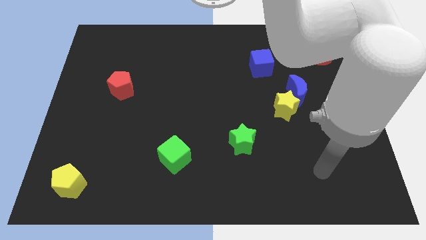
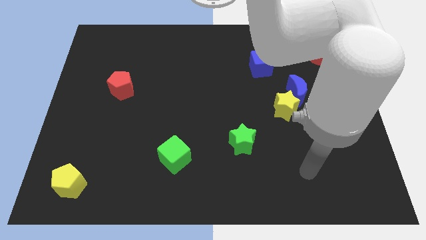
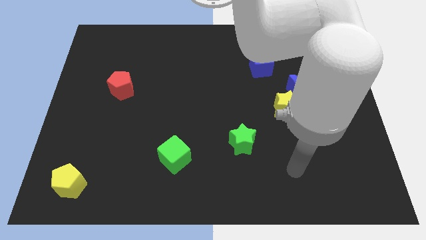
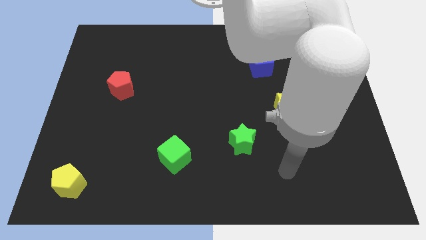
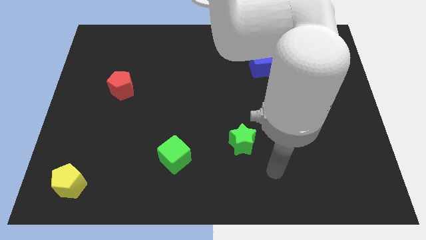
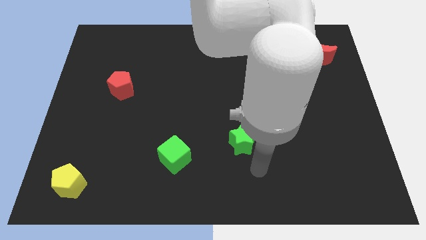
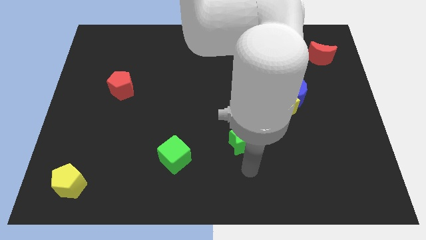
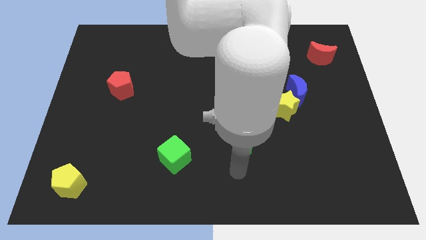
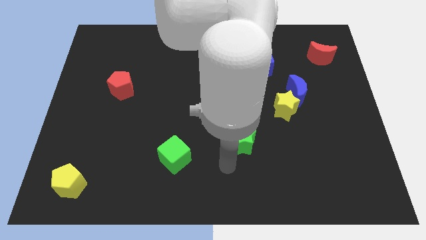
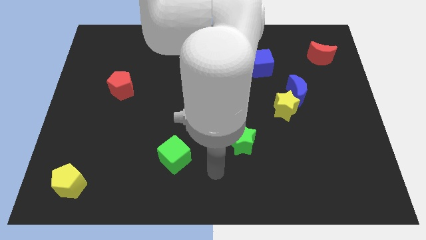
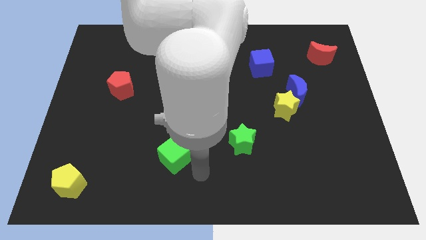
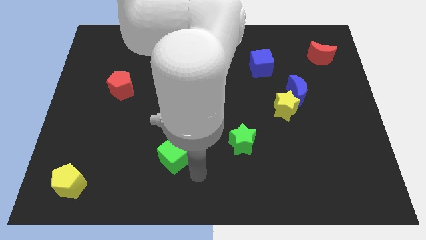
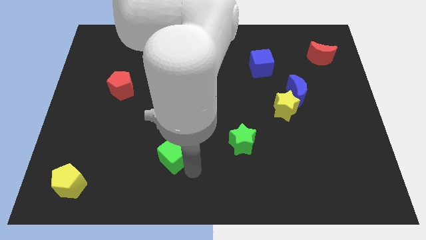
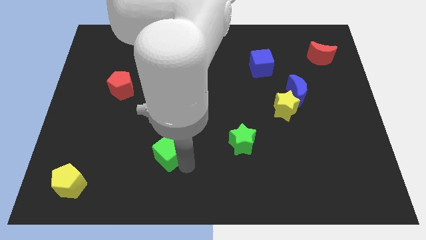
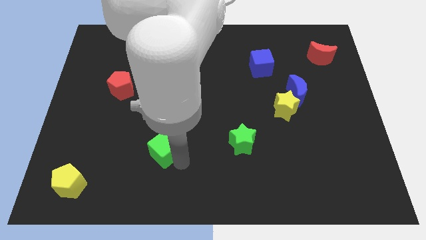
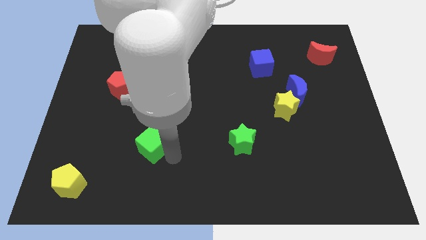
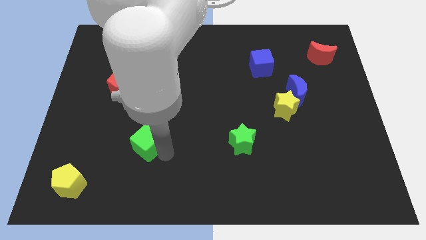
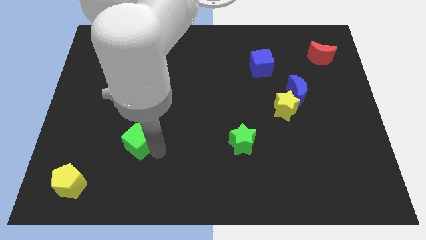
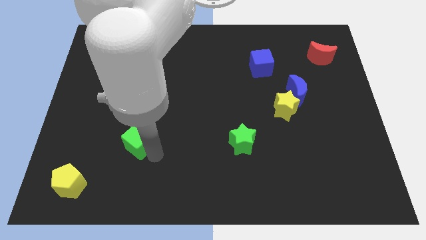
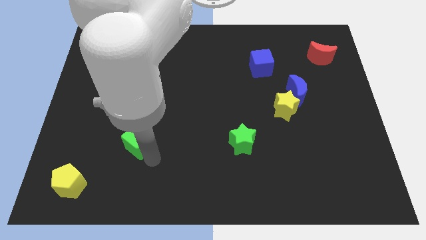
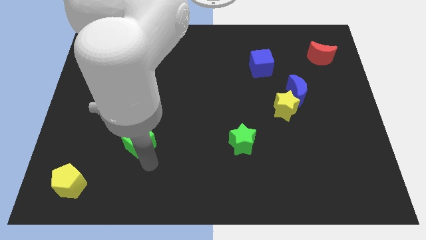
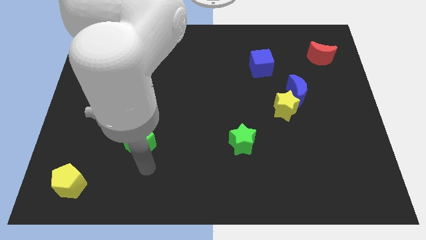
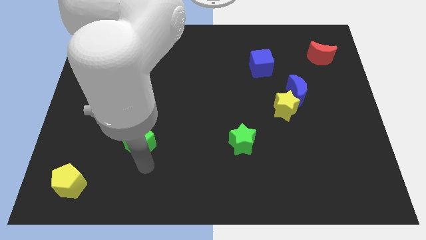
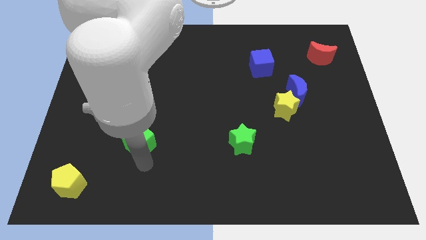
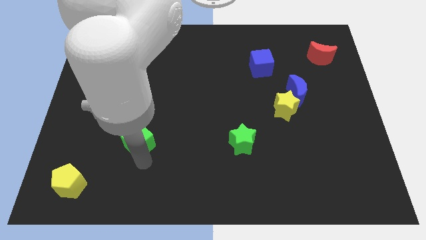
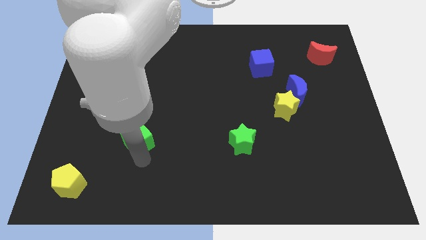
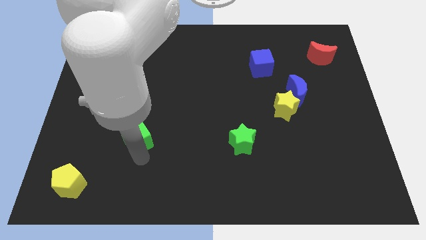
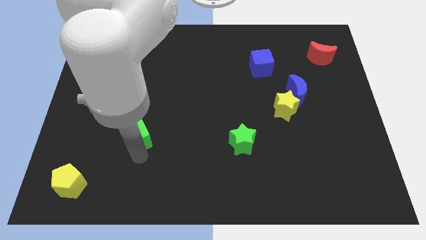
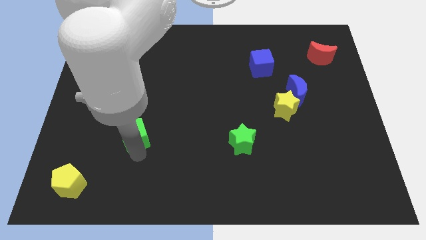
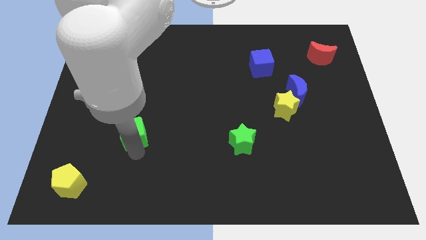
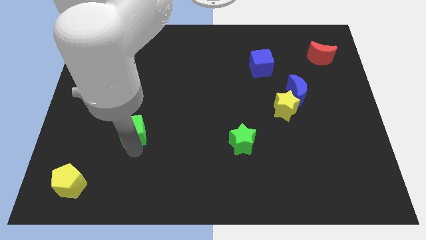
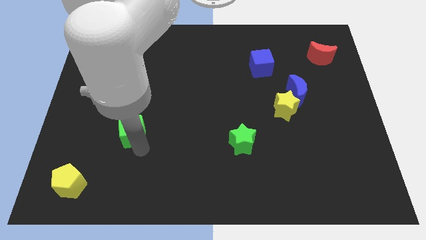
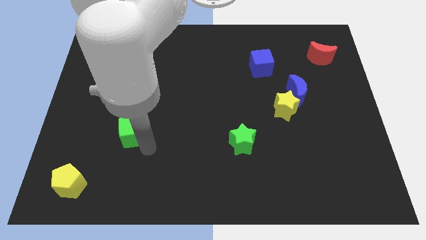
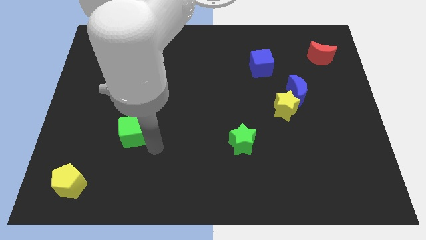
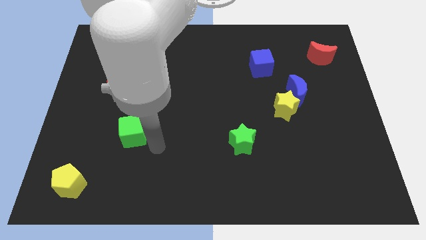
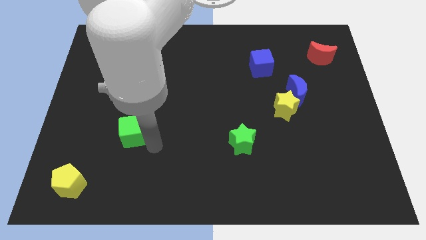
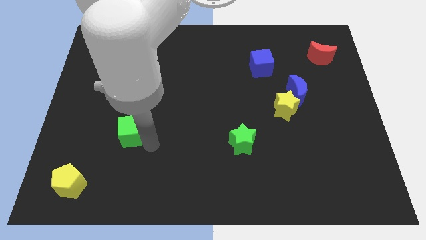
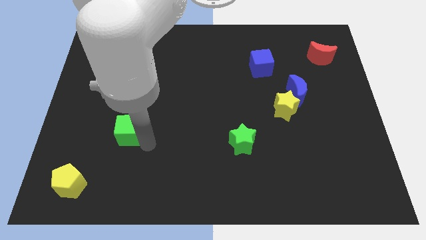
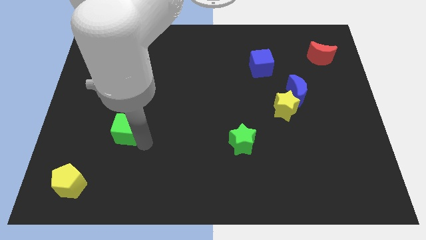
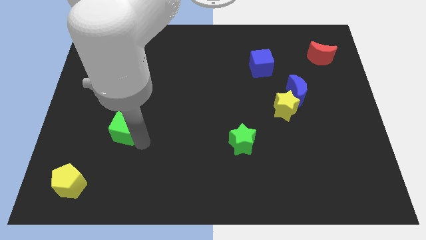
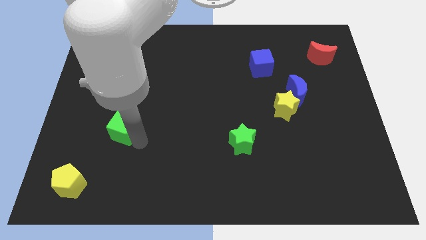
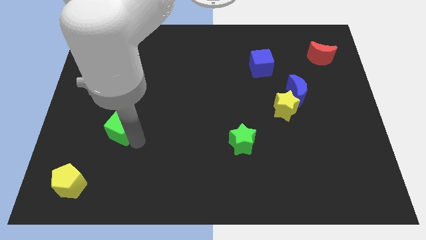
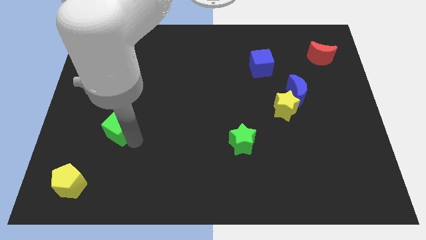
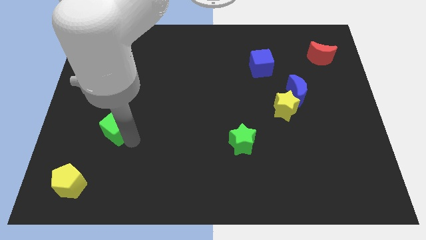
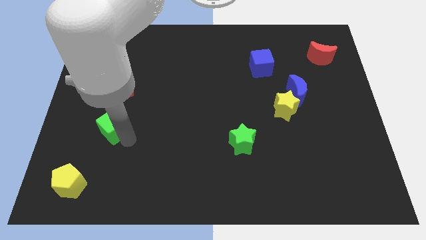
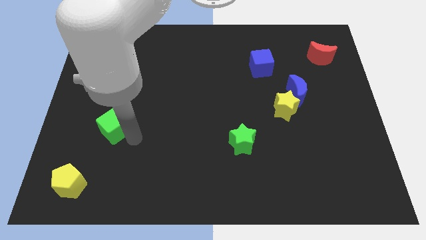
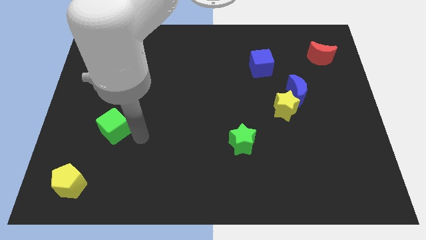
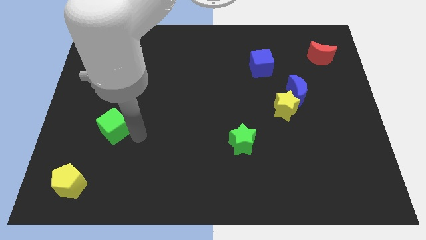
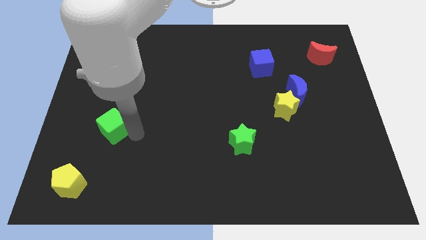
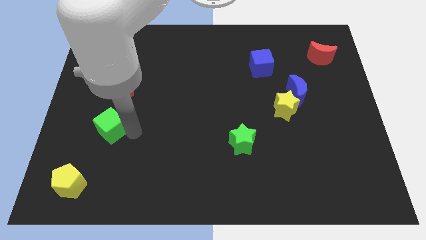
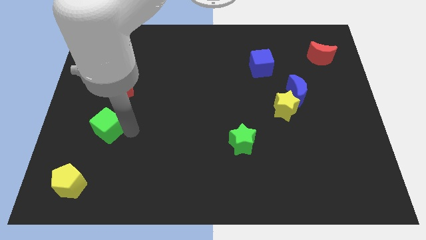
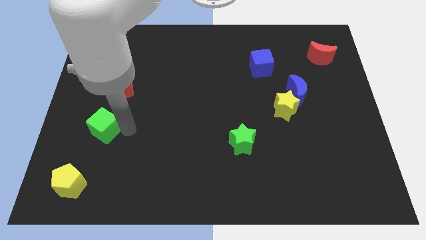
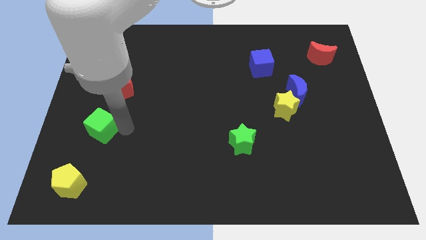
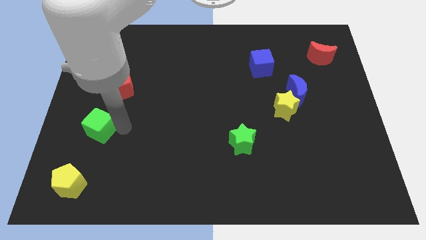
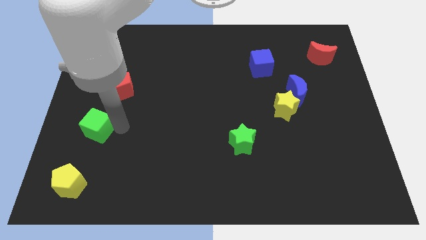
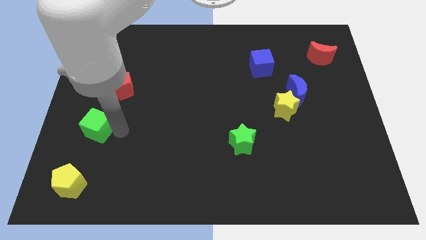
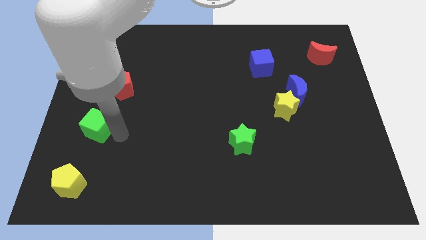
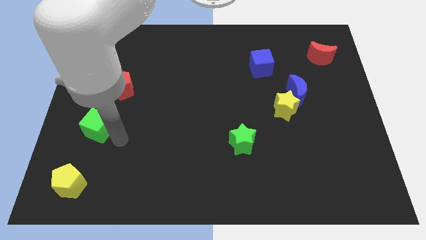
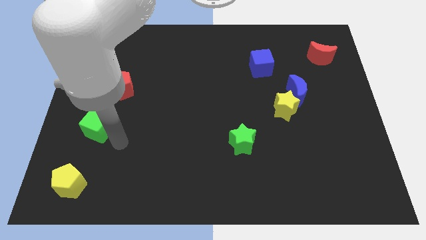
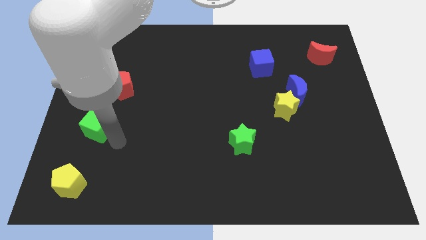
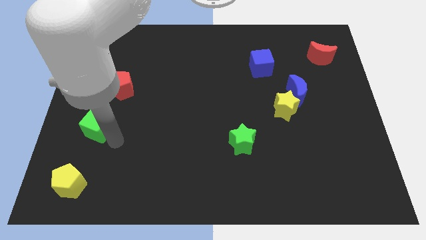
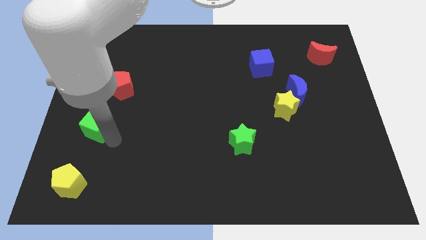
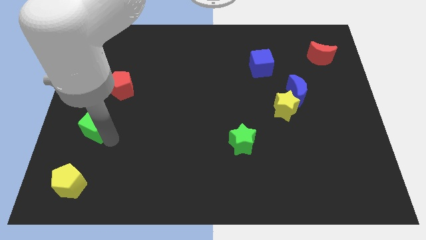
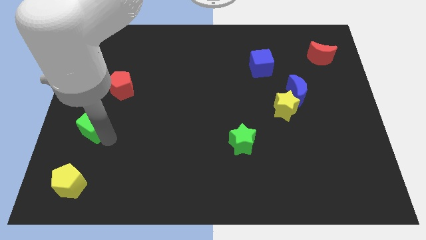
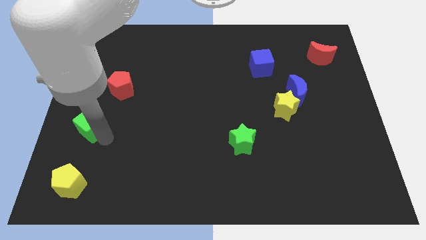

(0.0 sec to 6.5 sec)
push the green cube to the left side of the board

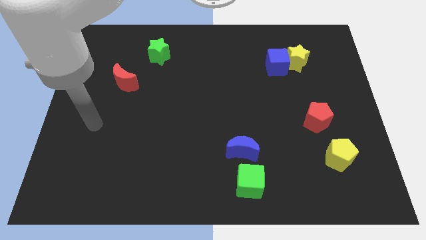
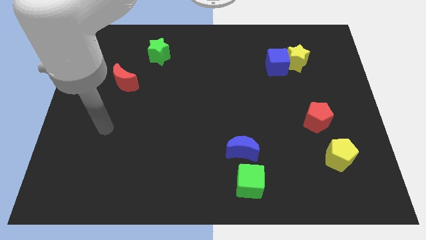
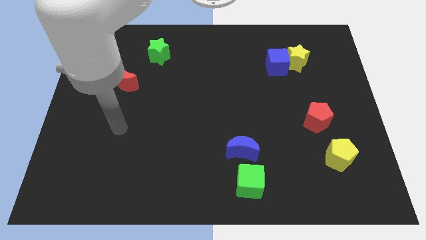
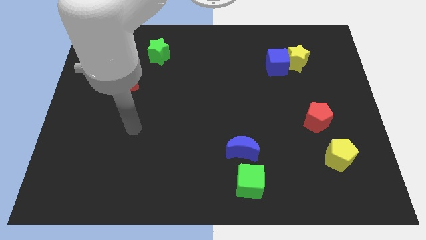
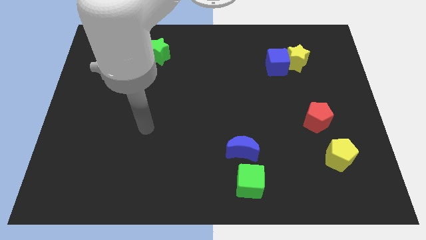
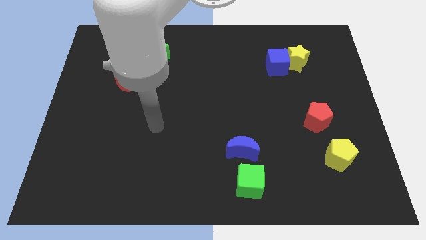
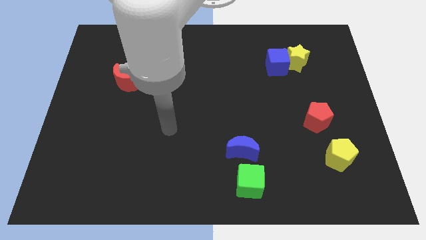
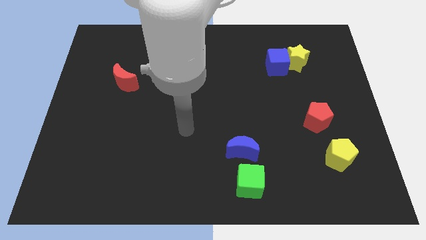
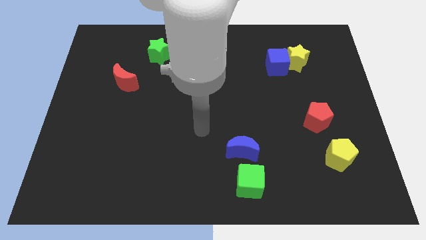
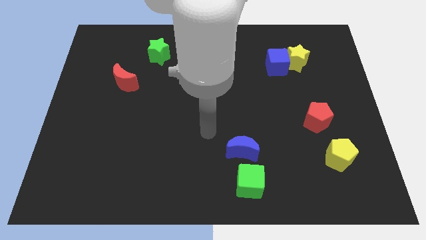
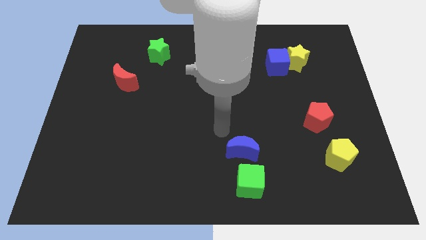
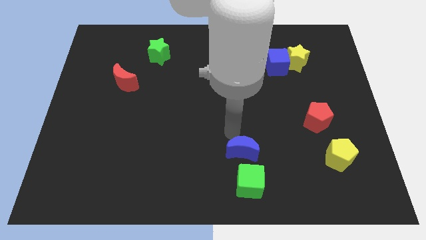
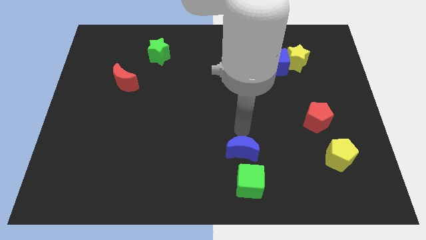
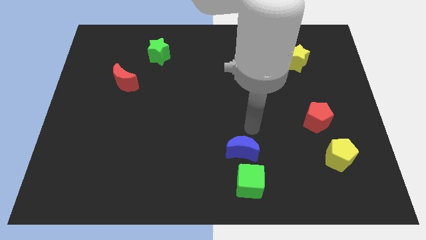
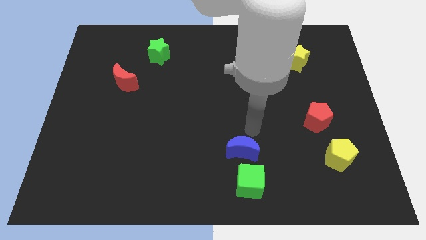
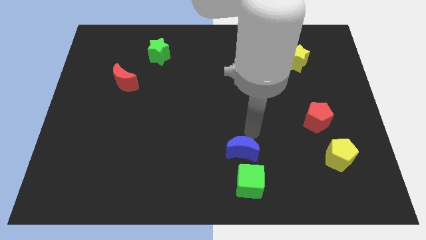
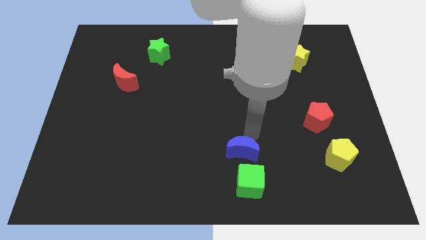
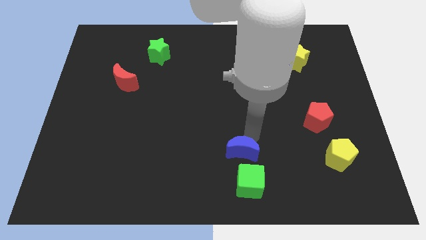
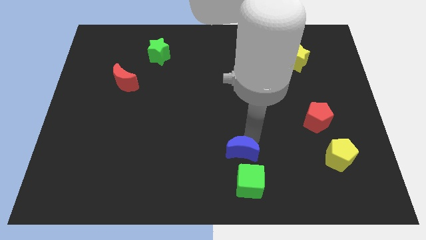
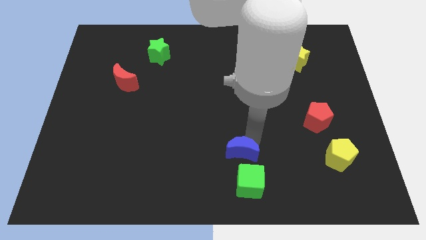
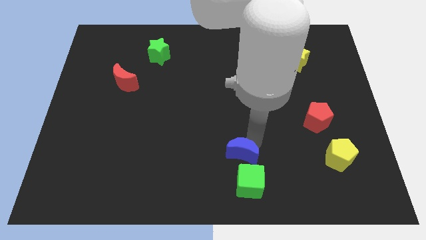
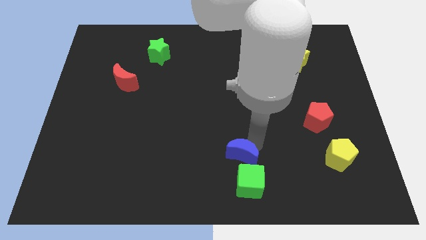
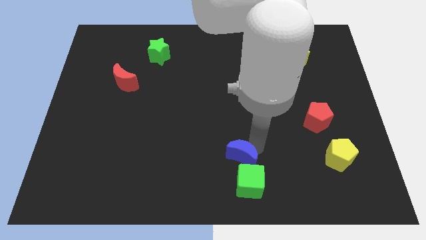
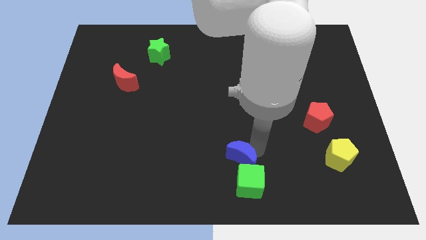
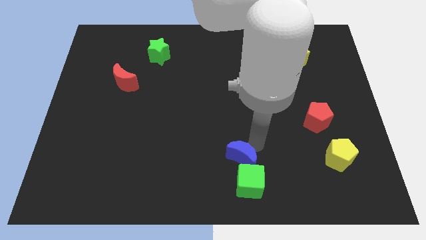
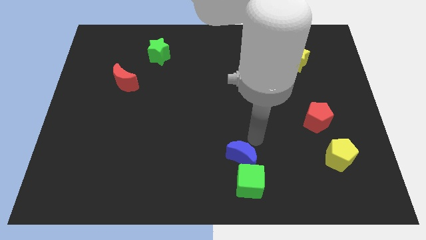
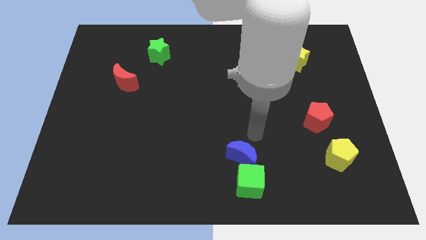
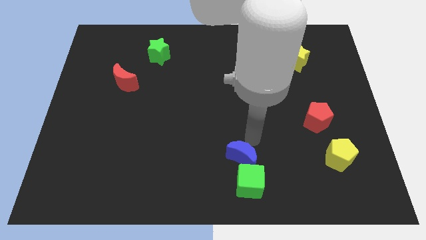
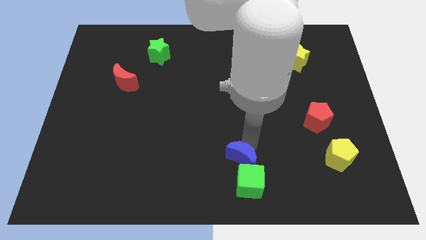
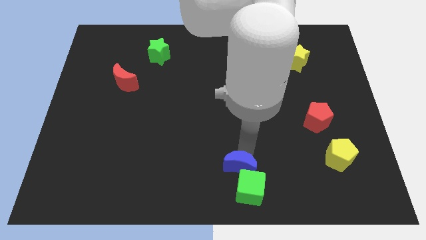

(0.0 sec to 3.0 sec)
push the blue moon to the bottom
